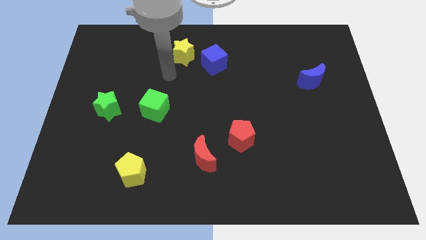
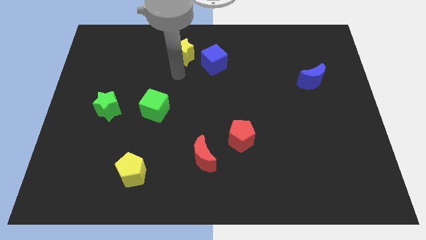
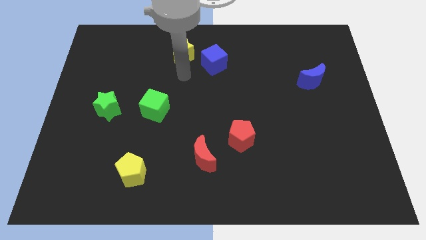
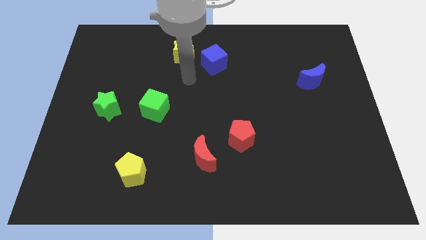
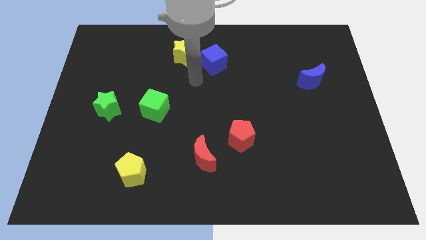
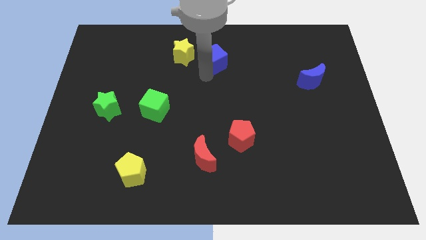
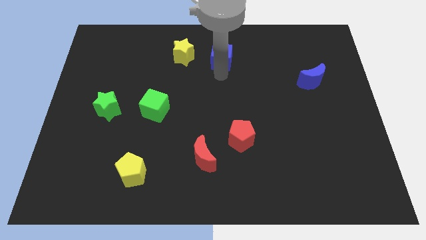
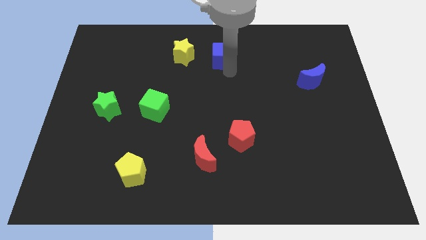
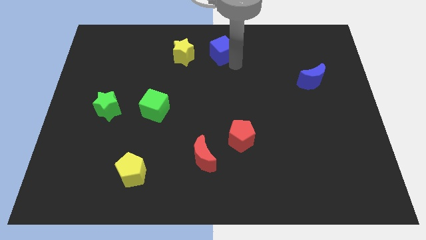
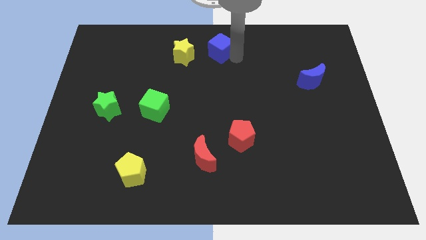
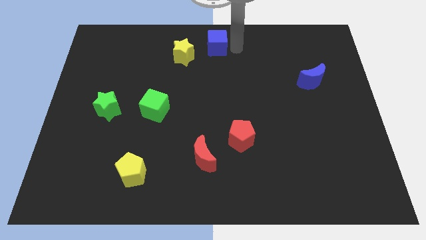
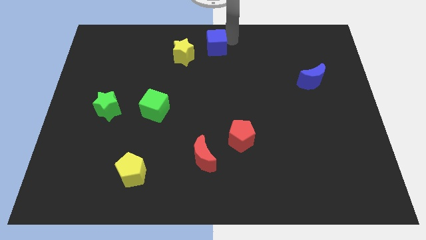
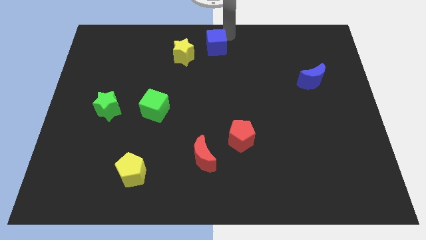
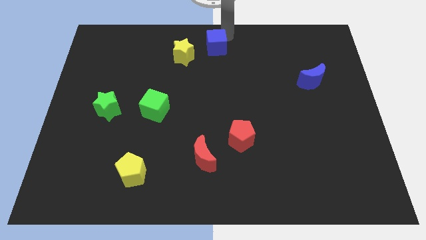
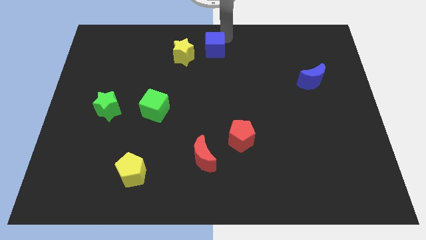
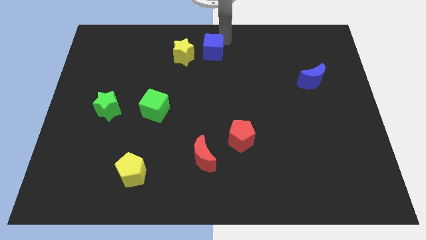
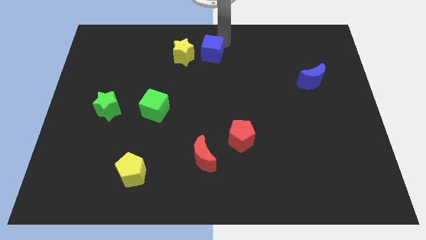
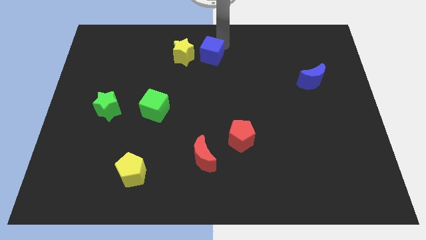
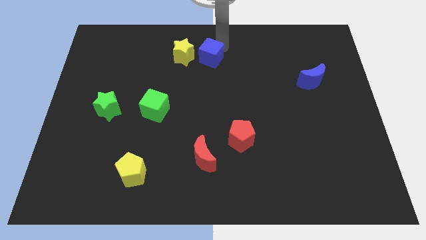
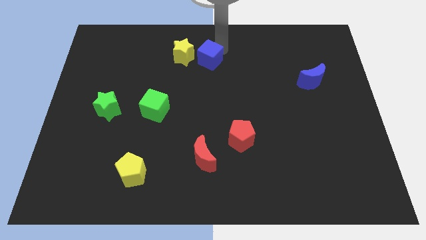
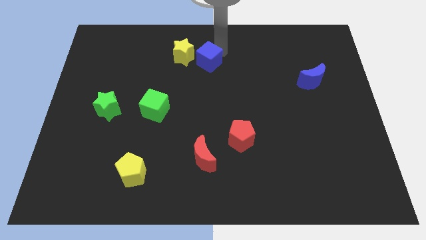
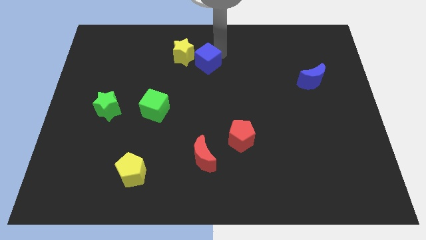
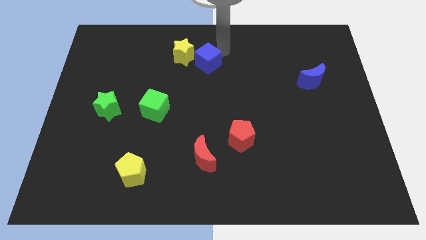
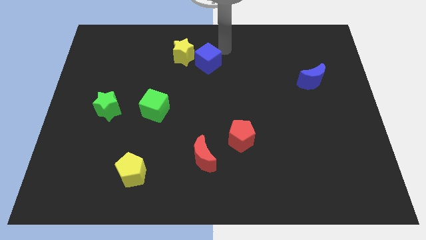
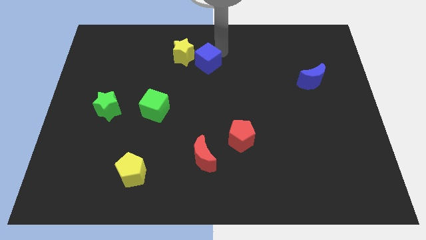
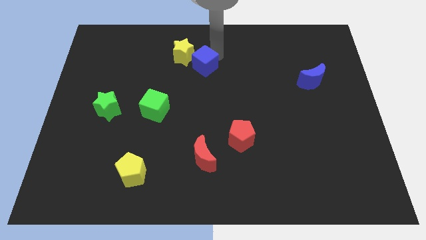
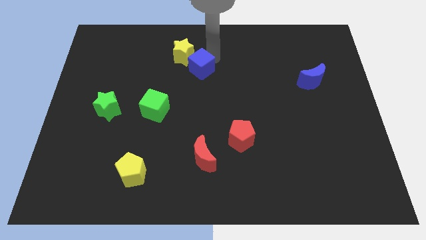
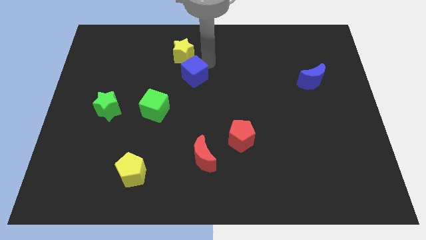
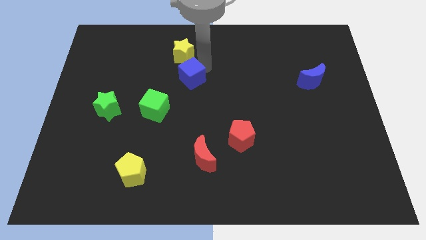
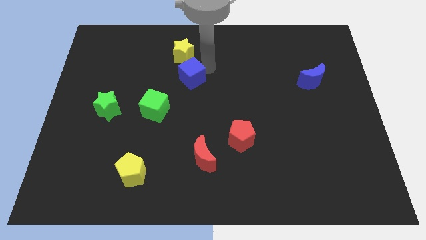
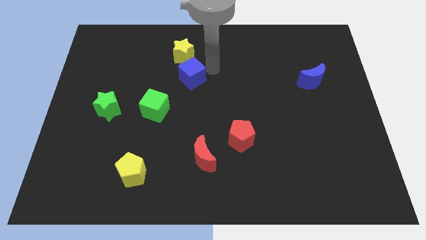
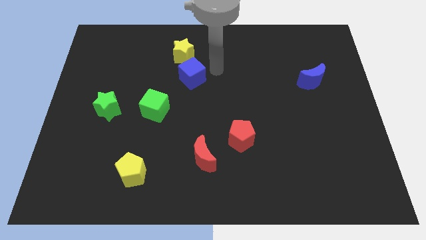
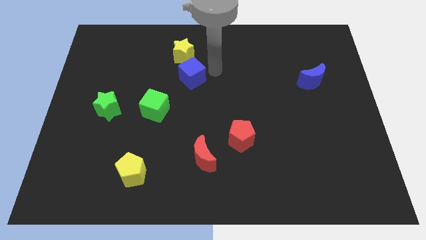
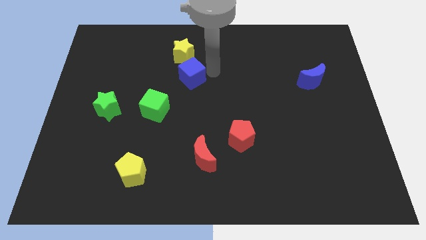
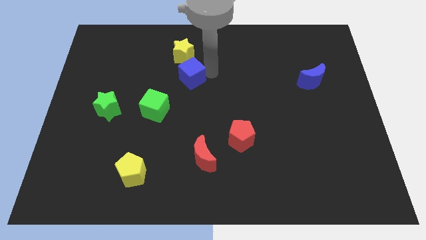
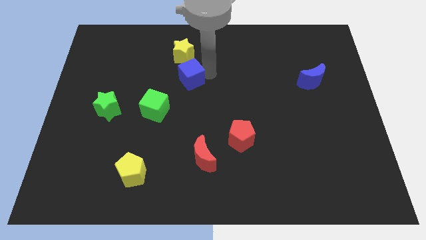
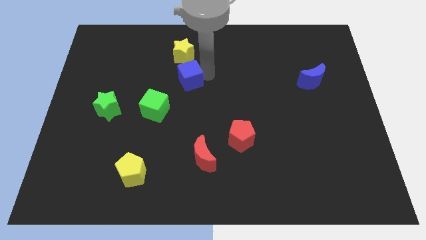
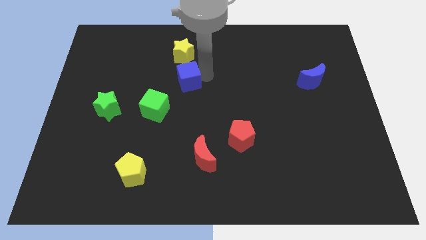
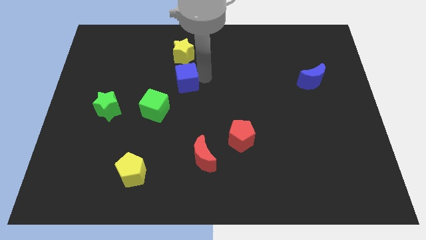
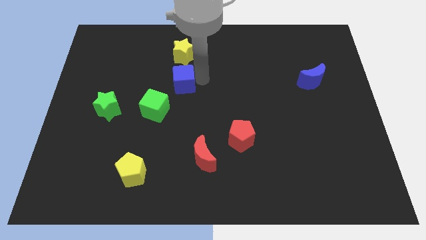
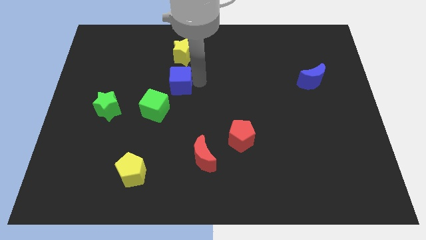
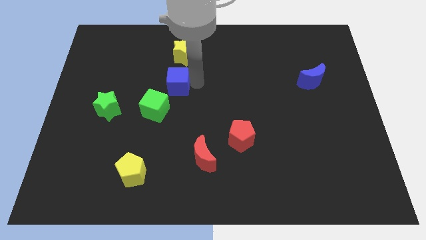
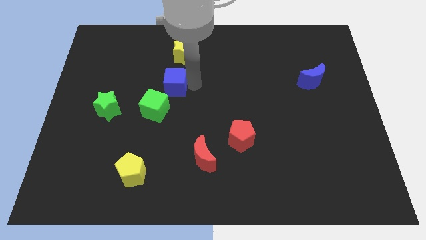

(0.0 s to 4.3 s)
slightly slide the blue cube left

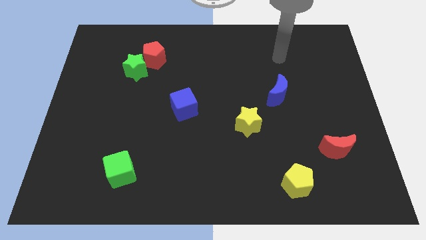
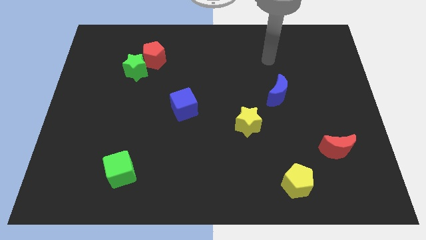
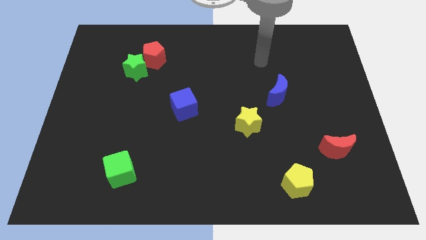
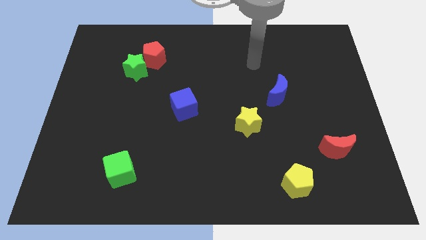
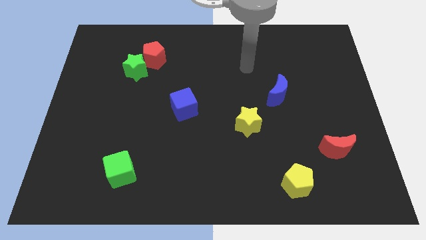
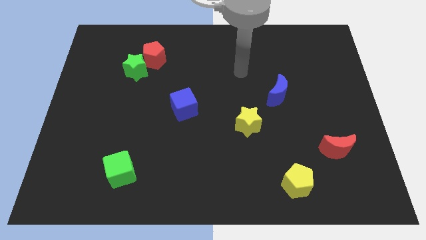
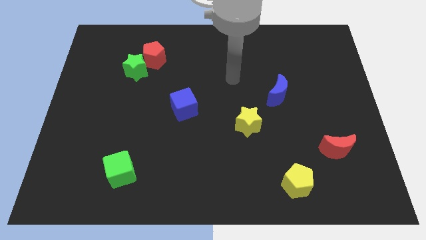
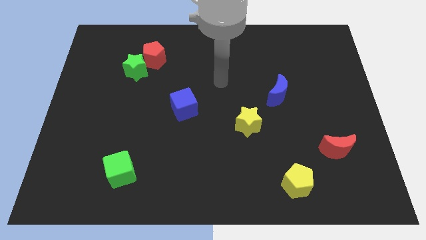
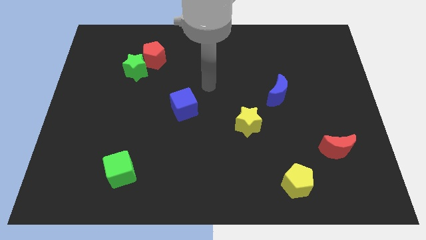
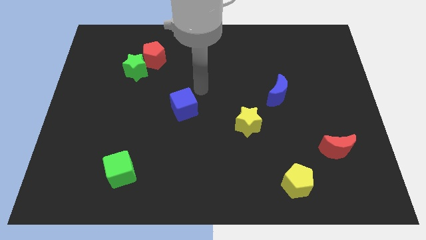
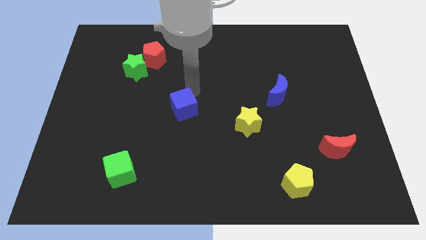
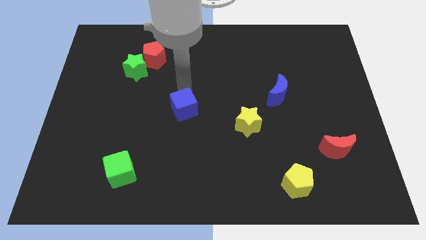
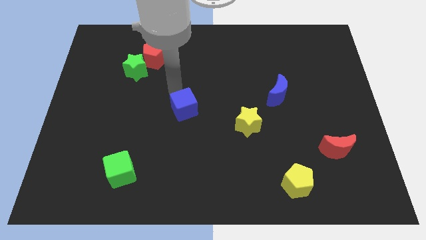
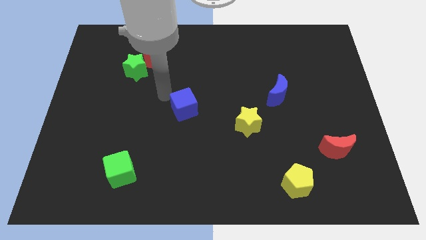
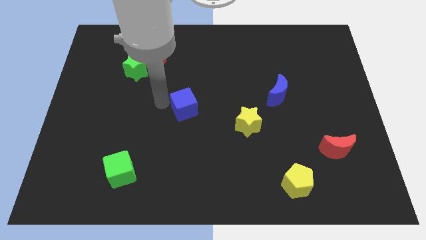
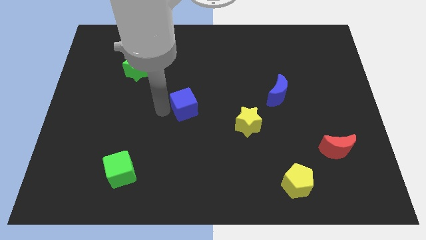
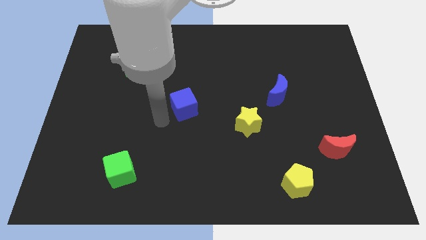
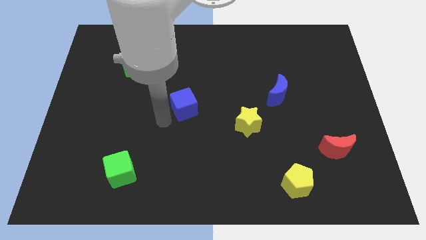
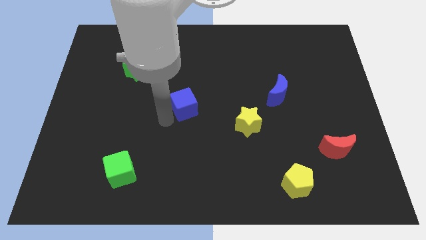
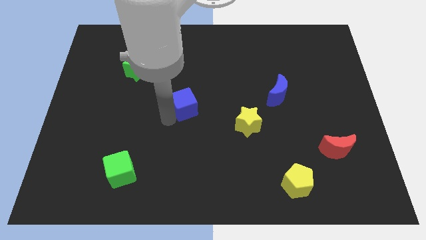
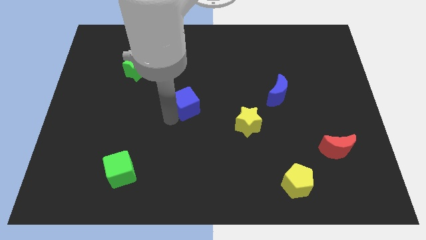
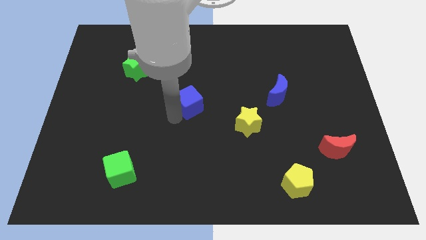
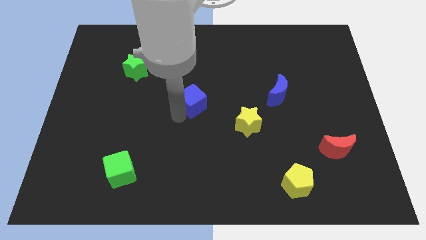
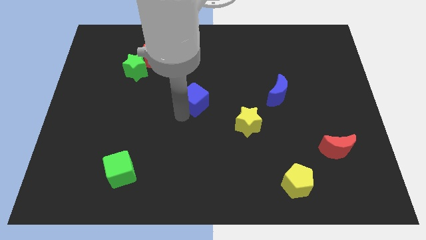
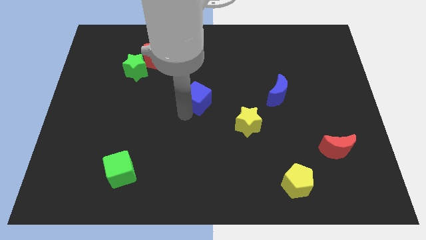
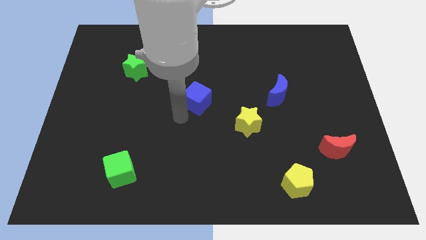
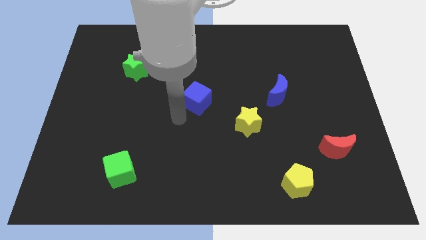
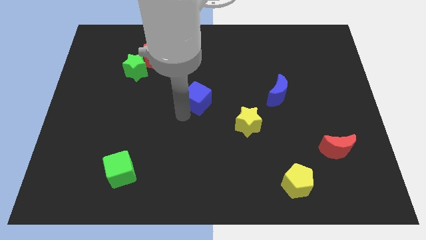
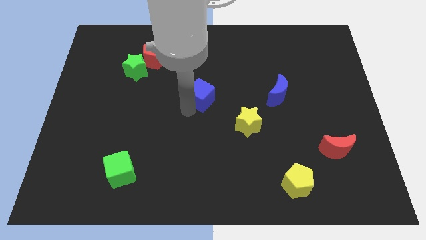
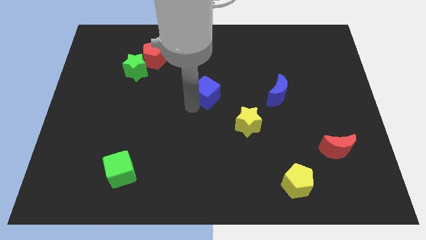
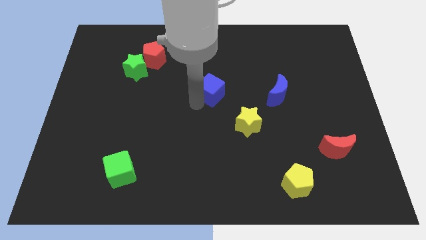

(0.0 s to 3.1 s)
move the blue cube upwards and to the right diagonally a little bit

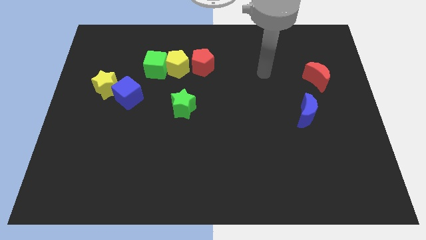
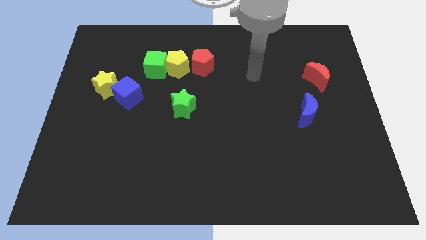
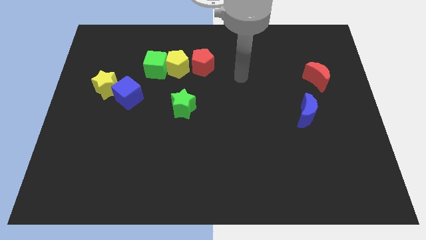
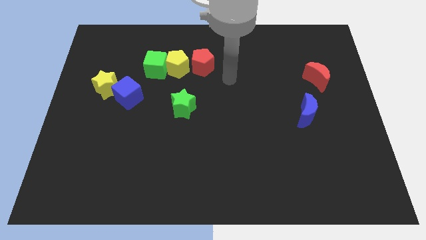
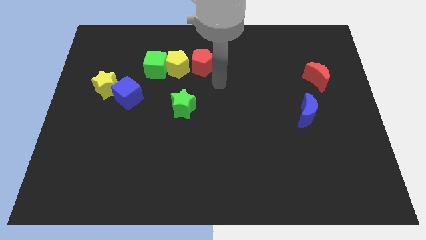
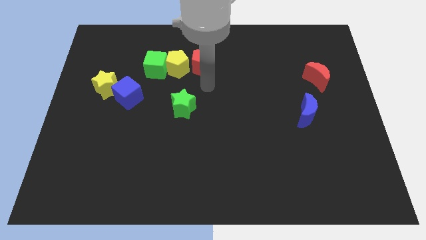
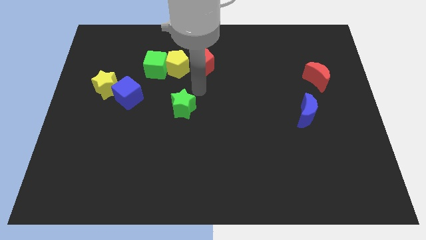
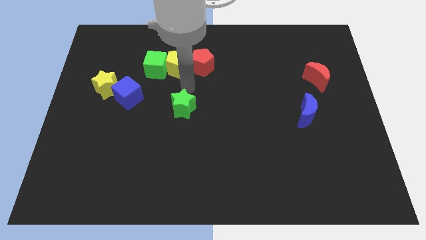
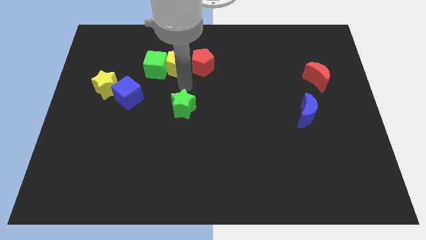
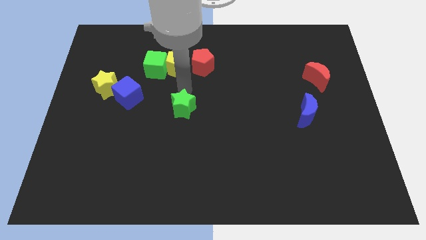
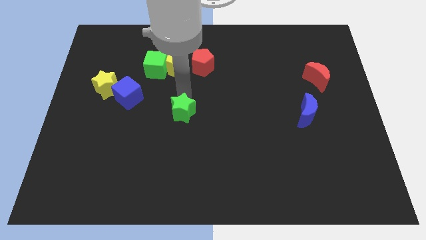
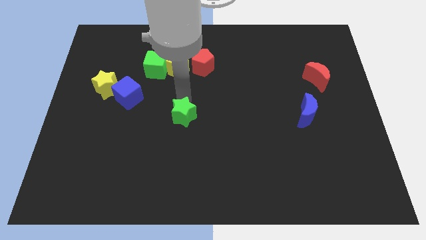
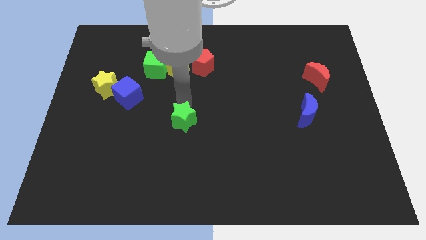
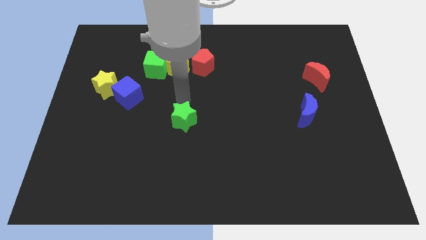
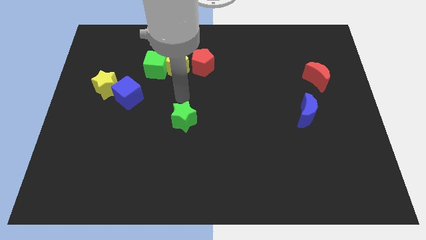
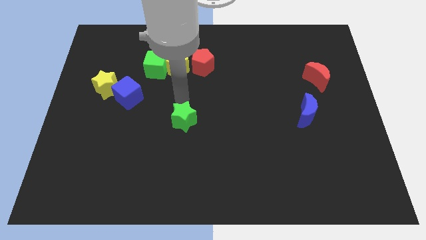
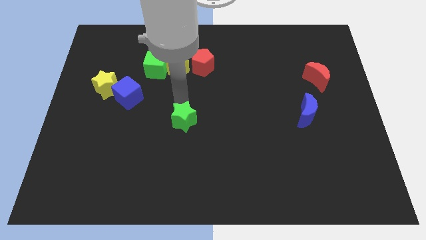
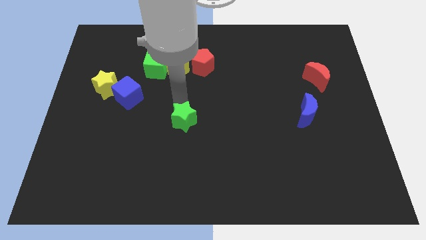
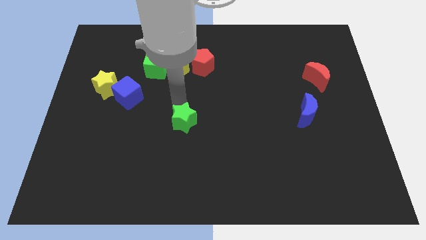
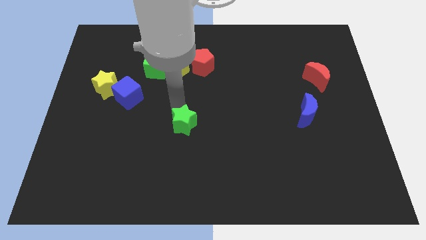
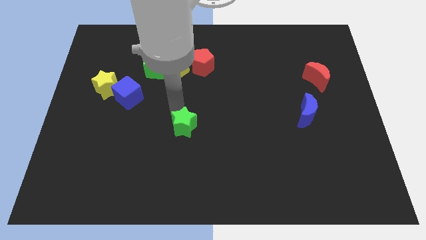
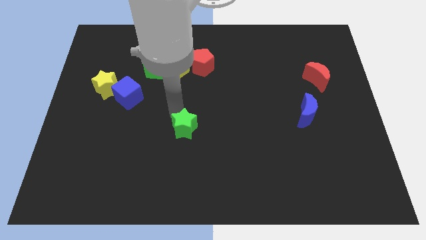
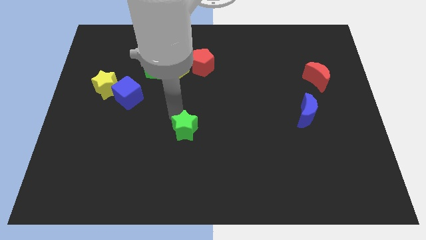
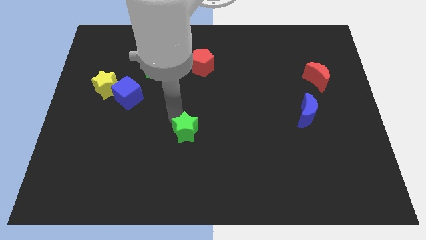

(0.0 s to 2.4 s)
slightly move the green star downwards
